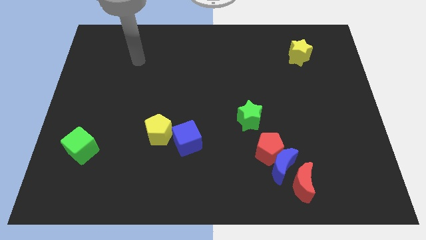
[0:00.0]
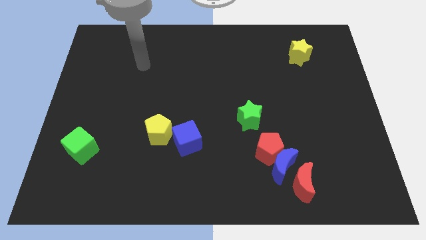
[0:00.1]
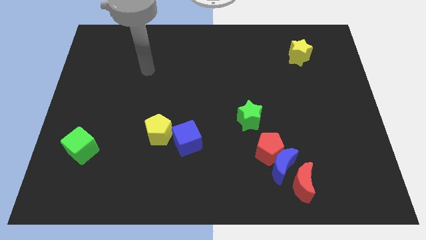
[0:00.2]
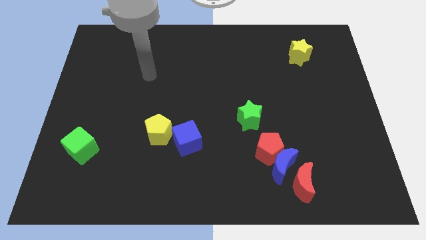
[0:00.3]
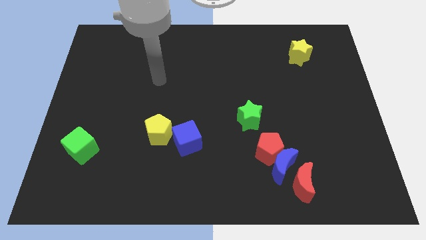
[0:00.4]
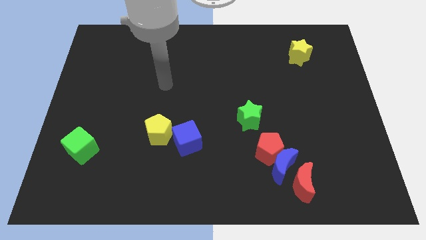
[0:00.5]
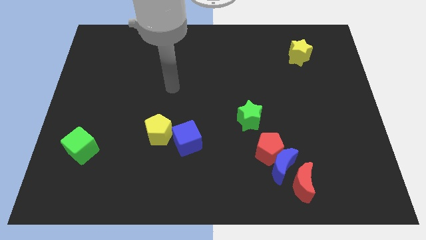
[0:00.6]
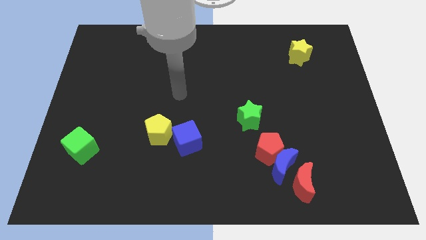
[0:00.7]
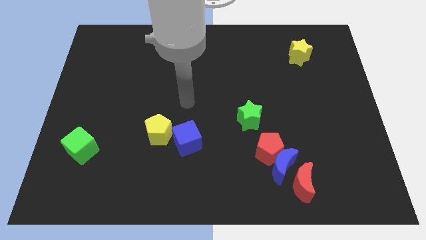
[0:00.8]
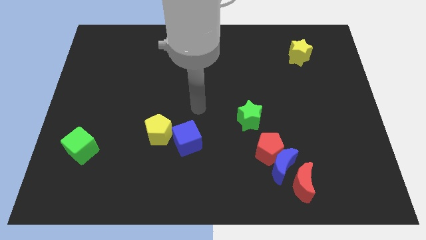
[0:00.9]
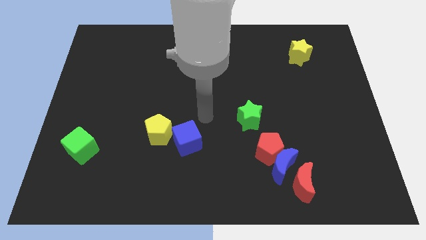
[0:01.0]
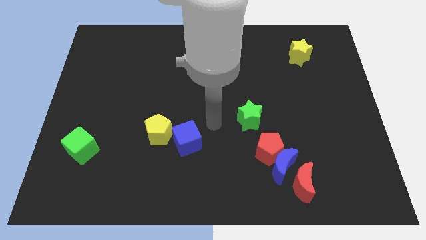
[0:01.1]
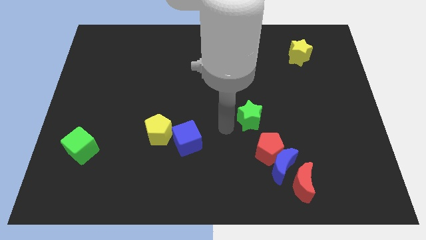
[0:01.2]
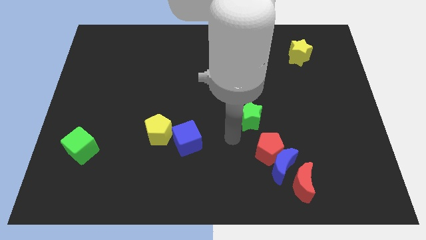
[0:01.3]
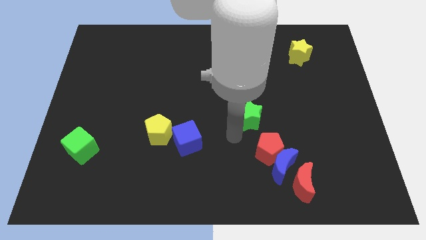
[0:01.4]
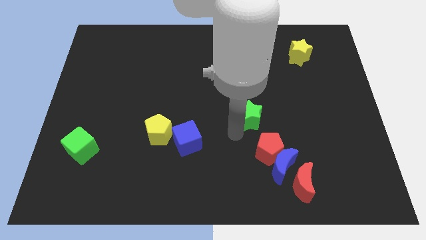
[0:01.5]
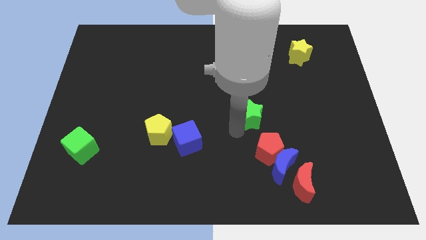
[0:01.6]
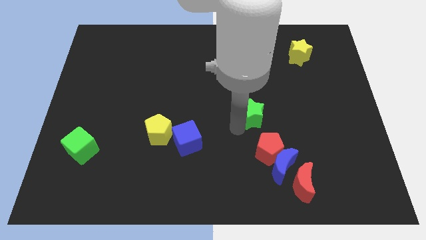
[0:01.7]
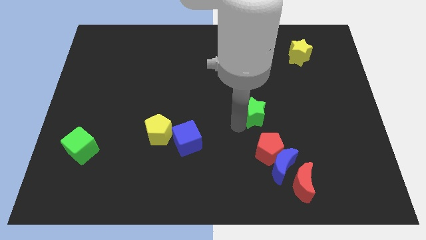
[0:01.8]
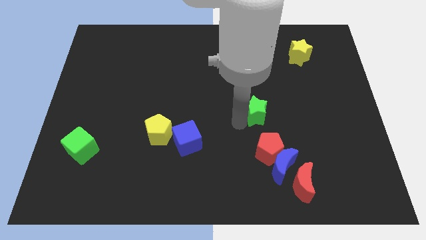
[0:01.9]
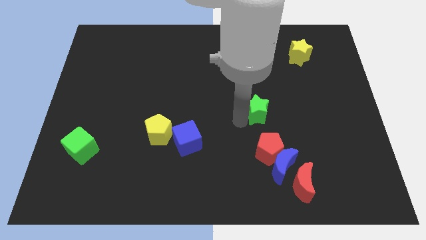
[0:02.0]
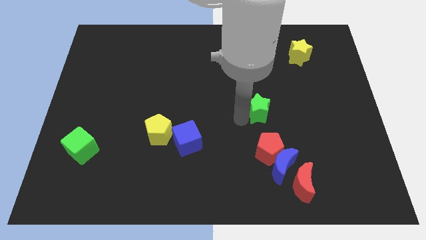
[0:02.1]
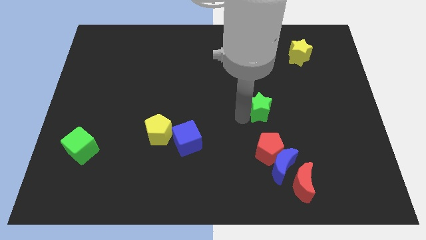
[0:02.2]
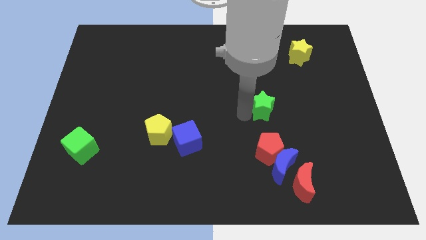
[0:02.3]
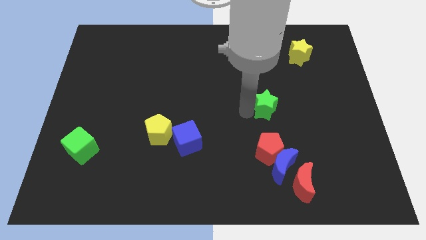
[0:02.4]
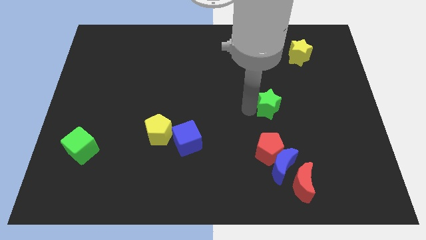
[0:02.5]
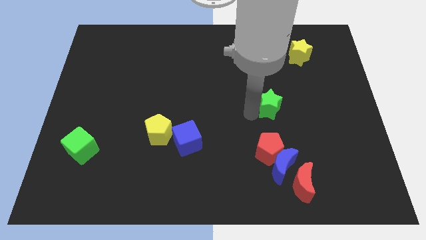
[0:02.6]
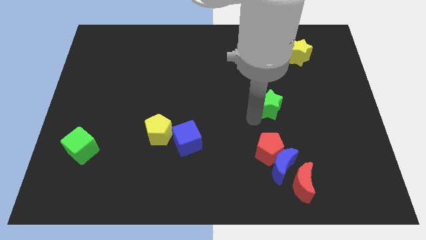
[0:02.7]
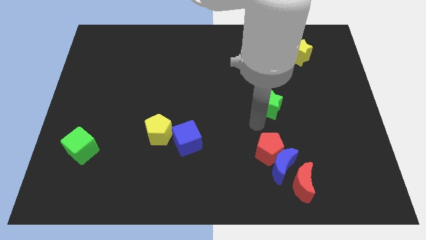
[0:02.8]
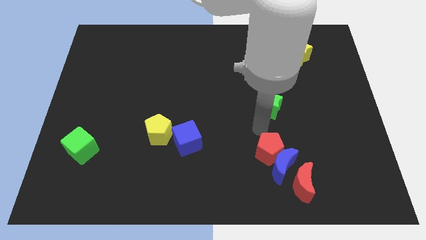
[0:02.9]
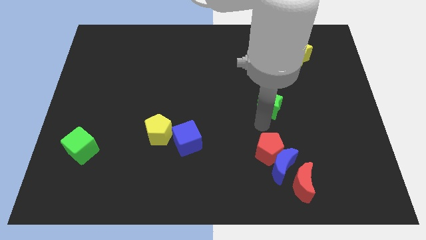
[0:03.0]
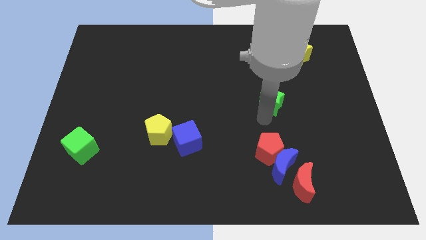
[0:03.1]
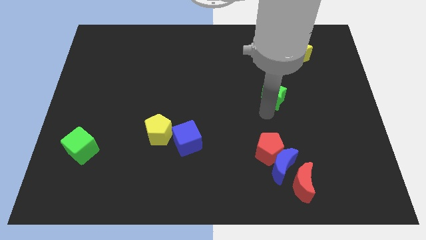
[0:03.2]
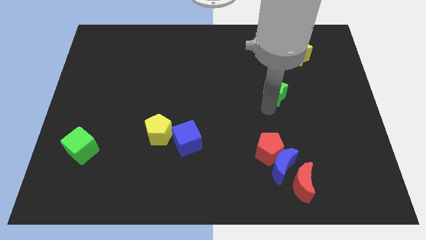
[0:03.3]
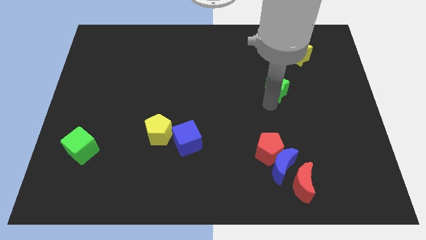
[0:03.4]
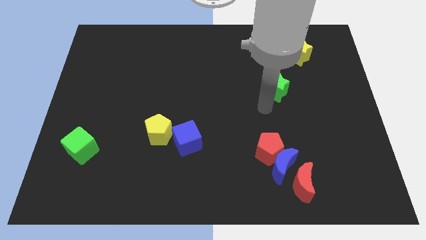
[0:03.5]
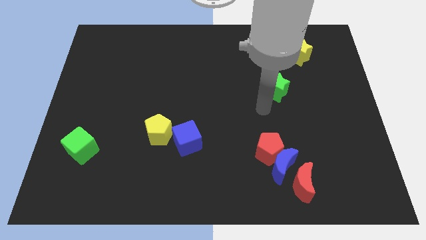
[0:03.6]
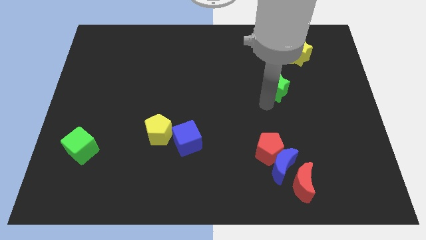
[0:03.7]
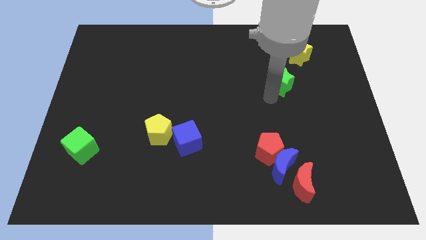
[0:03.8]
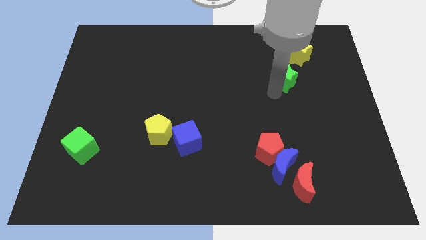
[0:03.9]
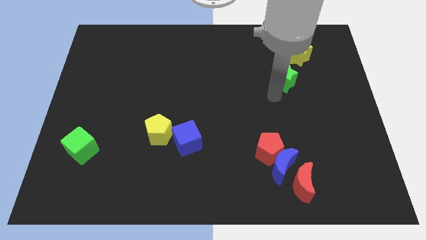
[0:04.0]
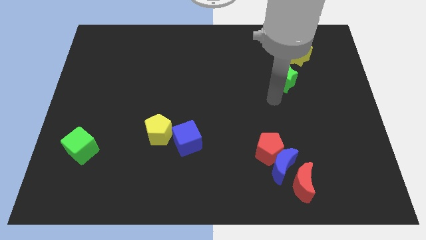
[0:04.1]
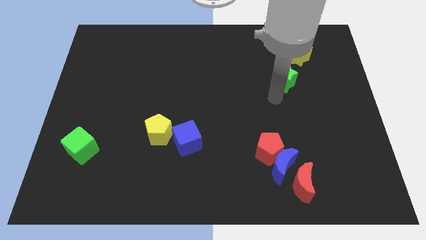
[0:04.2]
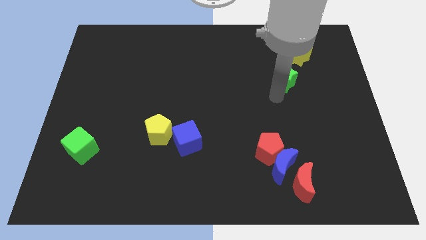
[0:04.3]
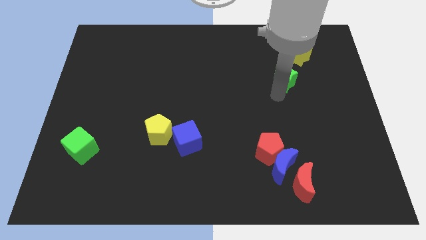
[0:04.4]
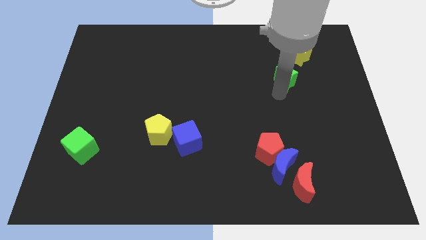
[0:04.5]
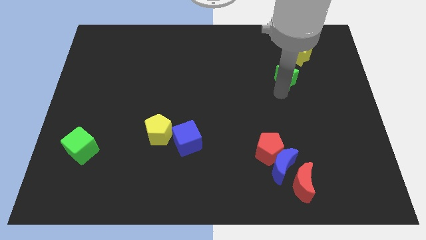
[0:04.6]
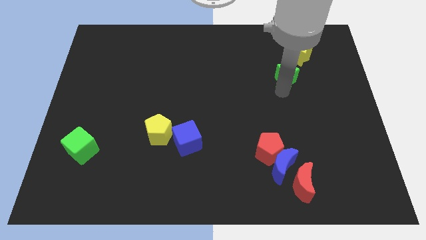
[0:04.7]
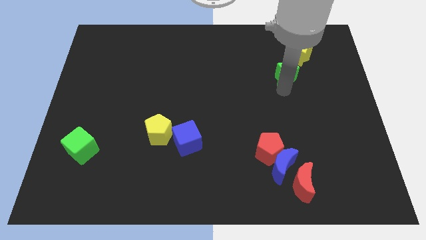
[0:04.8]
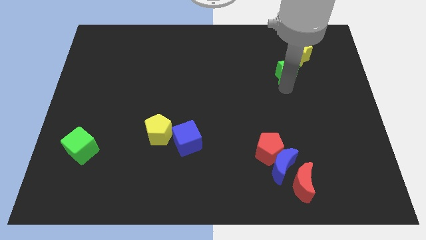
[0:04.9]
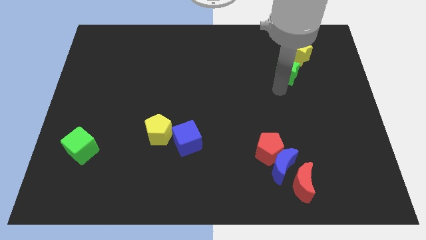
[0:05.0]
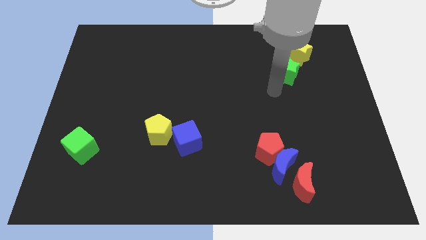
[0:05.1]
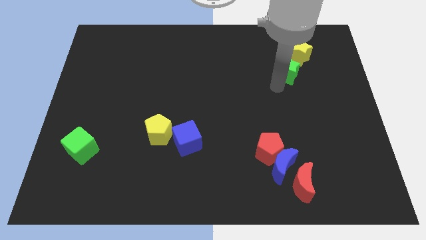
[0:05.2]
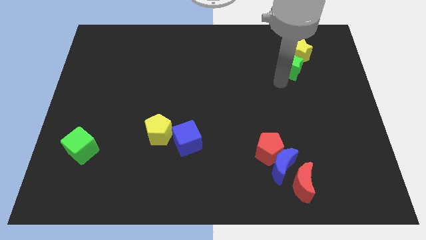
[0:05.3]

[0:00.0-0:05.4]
put the green star close to the yellow star

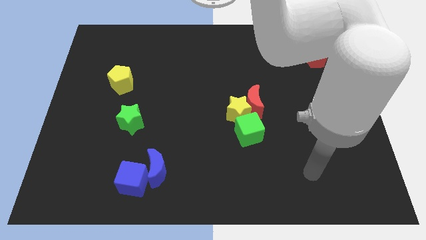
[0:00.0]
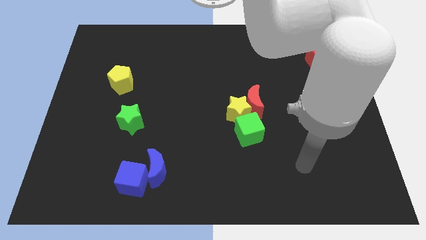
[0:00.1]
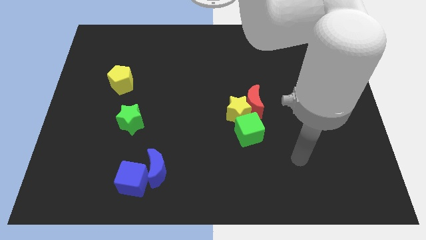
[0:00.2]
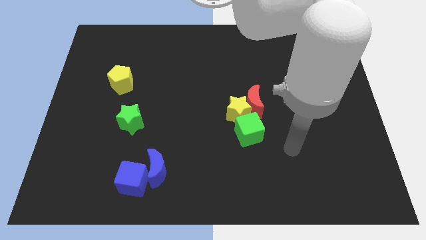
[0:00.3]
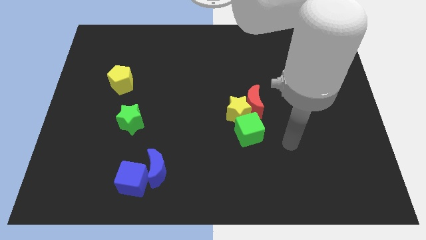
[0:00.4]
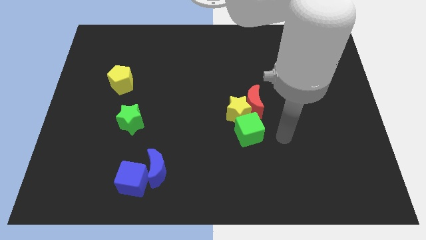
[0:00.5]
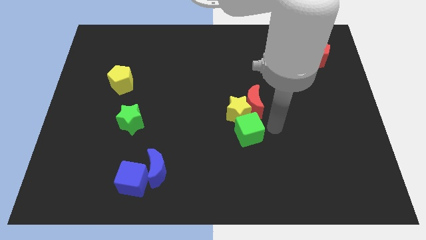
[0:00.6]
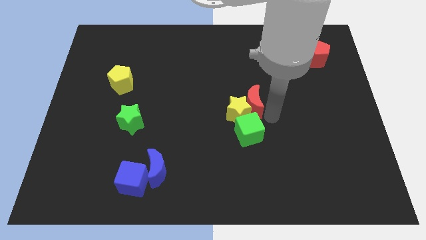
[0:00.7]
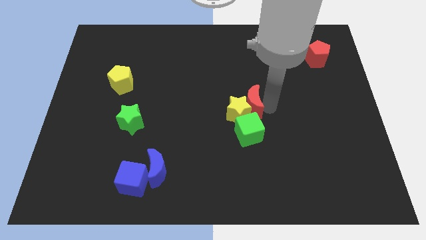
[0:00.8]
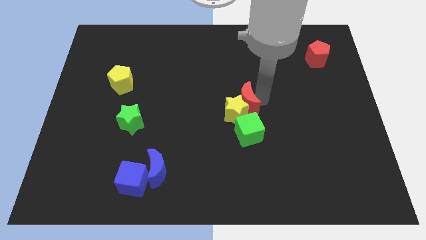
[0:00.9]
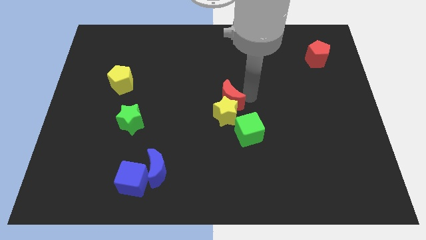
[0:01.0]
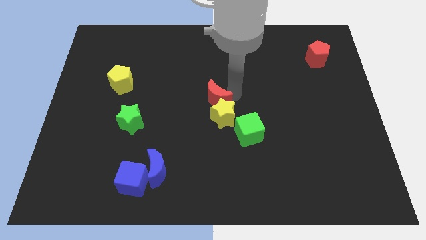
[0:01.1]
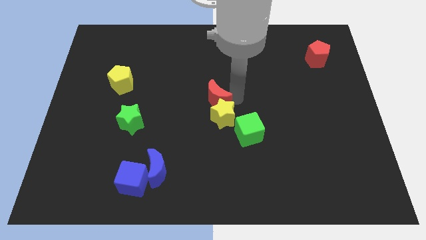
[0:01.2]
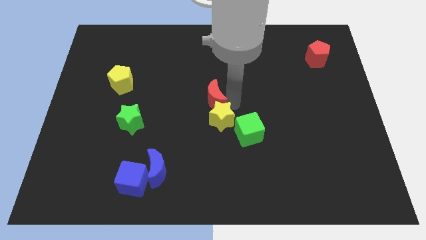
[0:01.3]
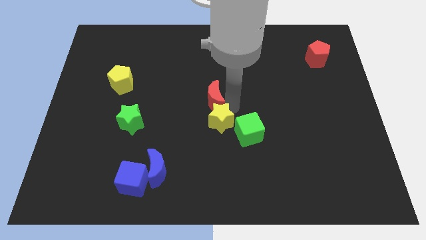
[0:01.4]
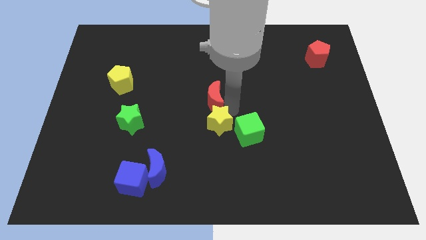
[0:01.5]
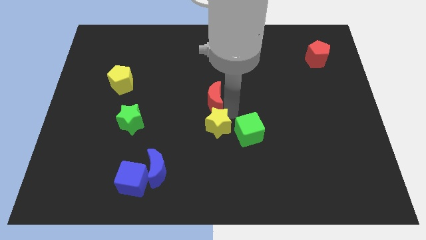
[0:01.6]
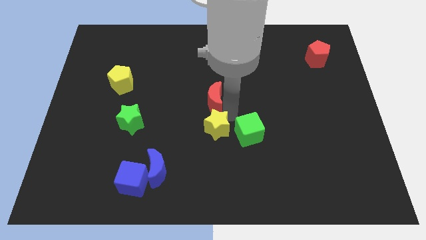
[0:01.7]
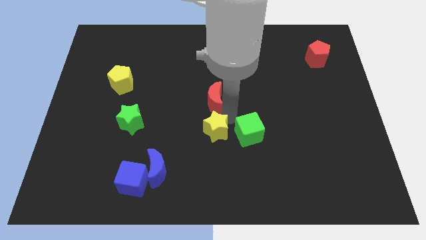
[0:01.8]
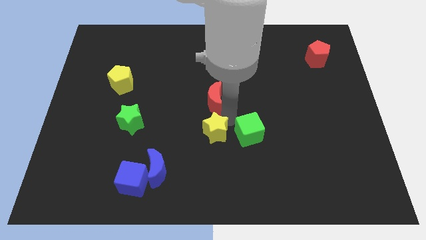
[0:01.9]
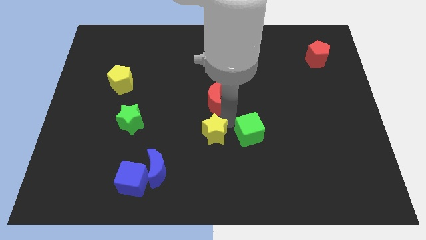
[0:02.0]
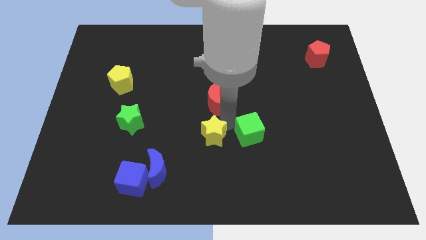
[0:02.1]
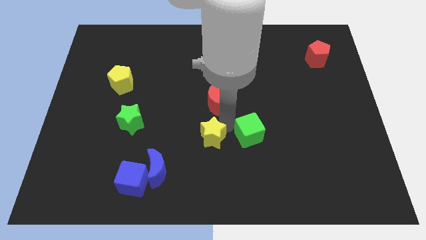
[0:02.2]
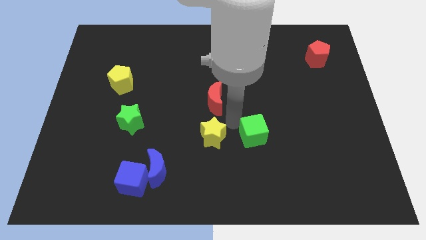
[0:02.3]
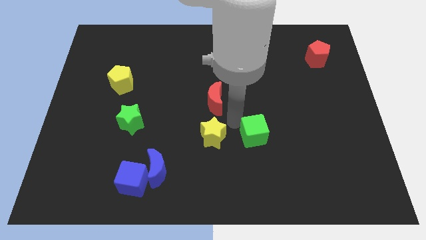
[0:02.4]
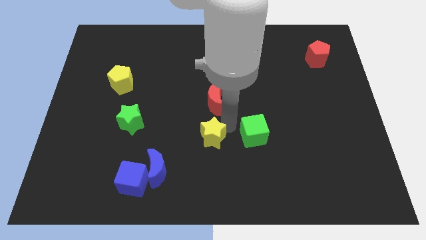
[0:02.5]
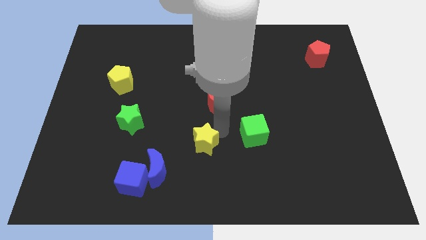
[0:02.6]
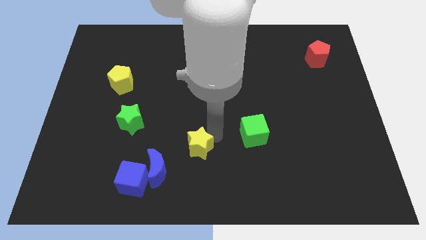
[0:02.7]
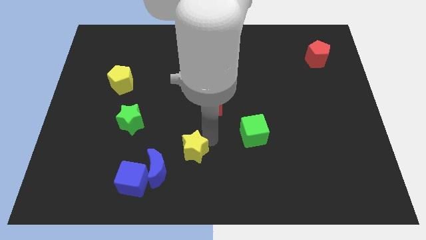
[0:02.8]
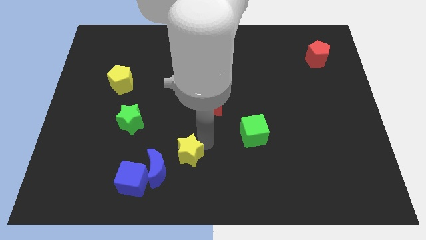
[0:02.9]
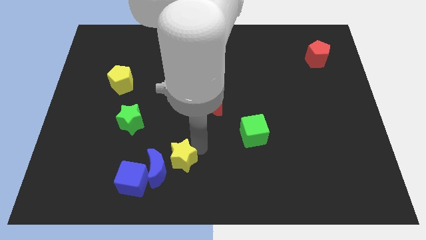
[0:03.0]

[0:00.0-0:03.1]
push the yellow star to the blue moon
